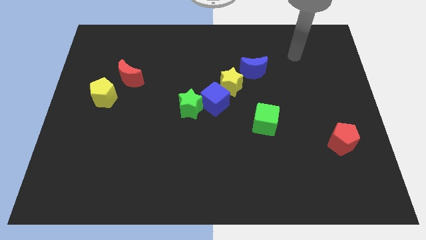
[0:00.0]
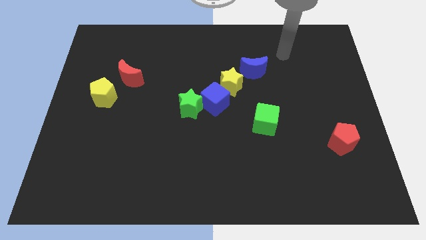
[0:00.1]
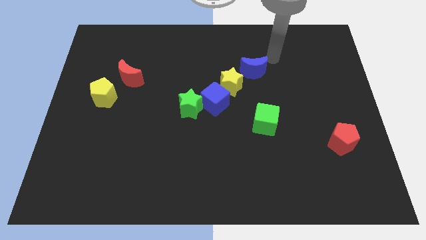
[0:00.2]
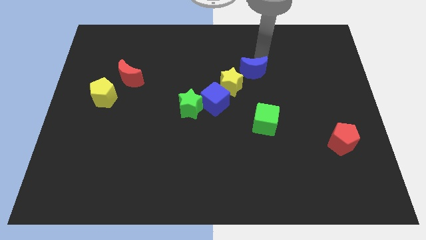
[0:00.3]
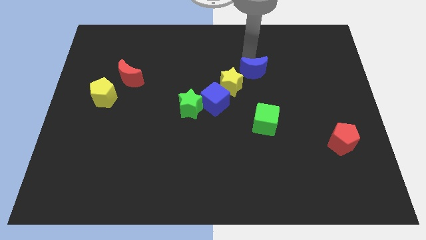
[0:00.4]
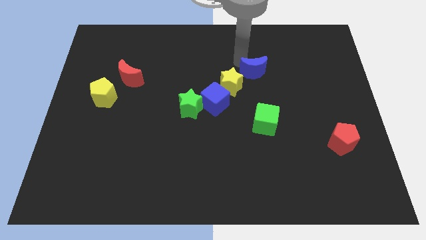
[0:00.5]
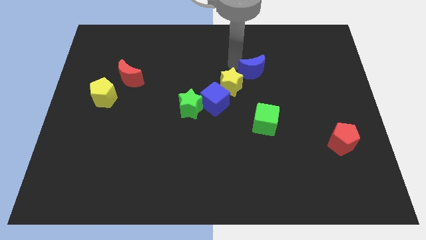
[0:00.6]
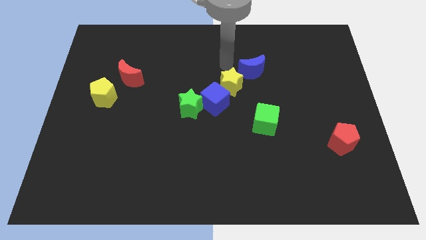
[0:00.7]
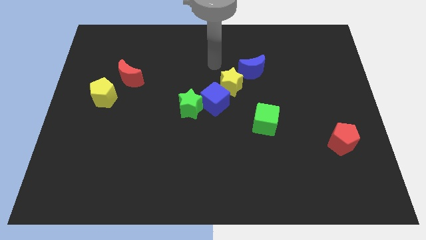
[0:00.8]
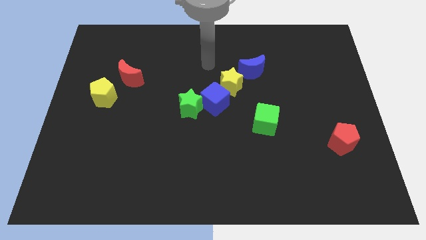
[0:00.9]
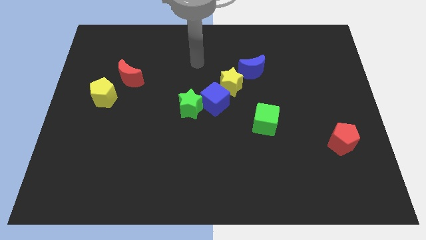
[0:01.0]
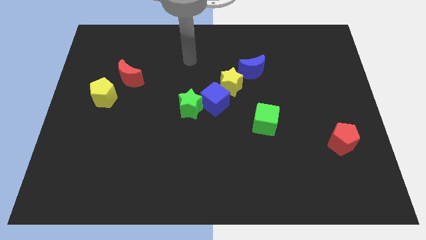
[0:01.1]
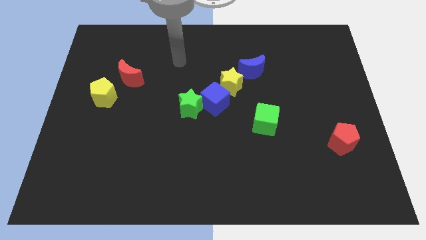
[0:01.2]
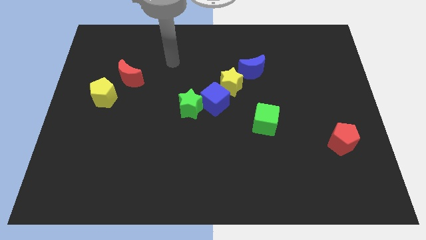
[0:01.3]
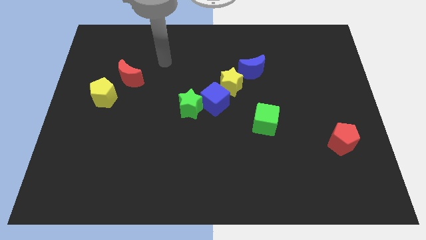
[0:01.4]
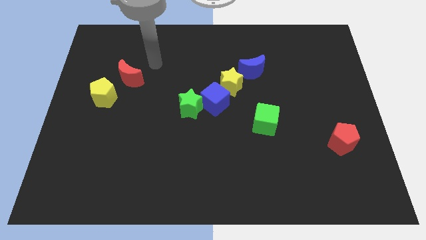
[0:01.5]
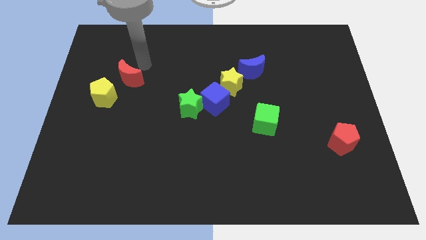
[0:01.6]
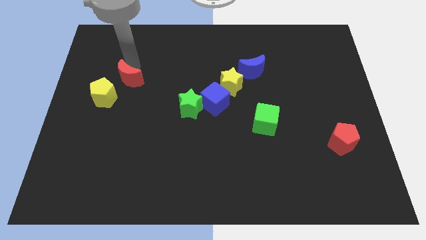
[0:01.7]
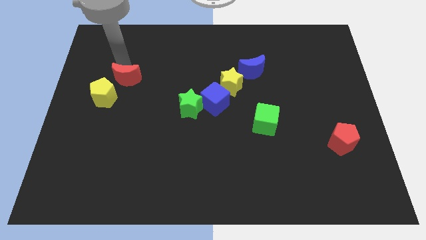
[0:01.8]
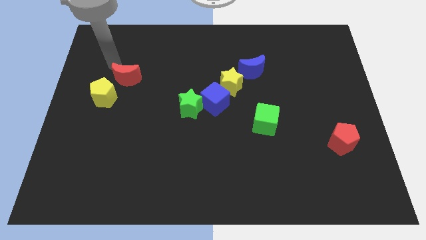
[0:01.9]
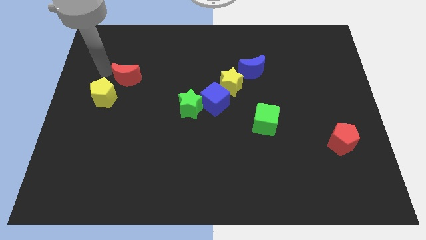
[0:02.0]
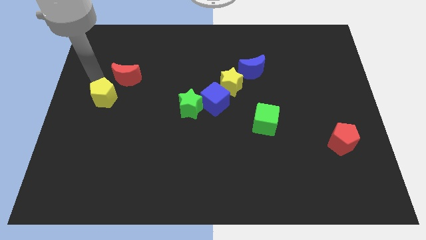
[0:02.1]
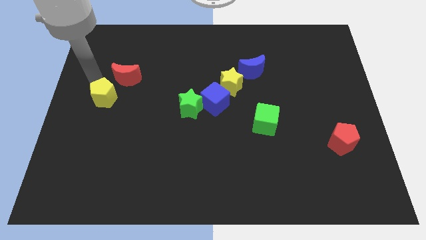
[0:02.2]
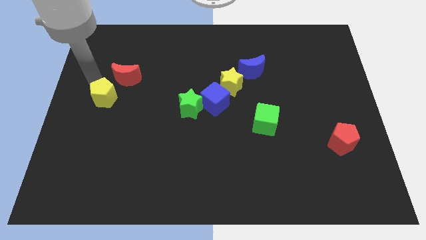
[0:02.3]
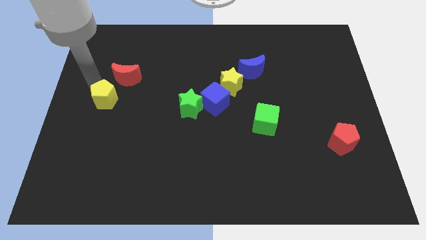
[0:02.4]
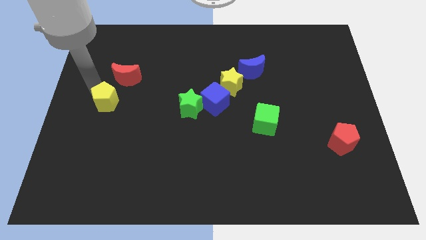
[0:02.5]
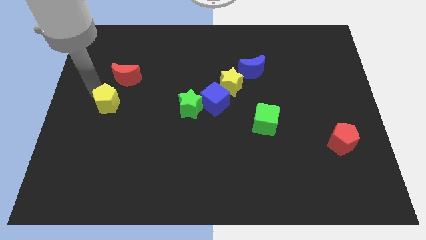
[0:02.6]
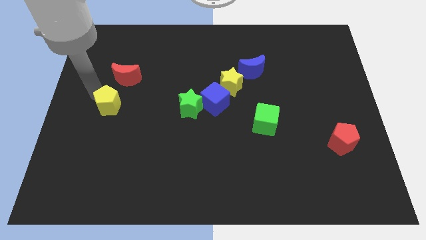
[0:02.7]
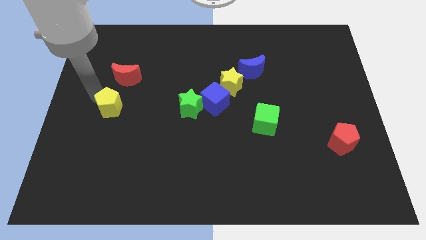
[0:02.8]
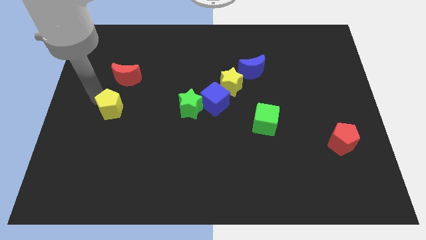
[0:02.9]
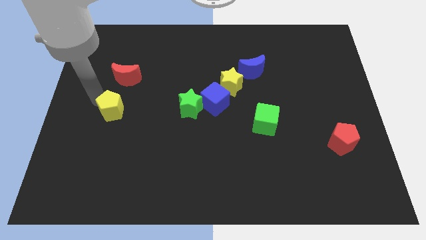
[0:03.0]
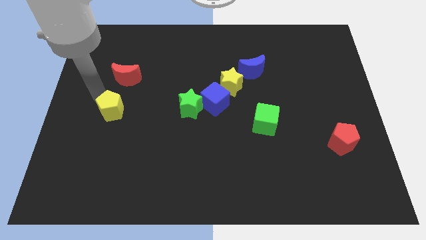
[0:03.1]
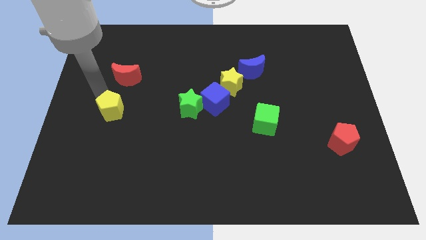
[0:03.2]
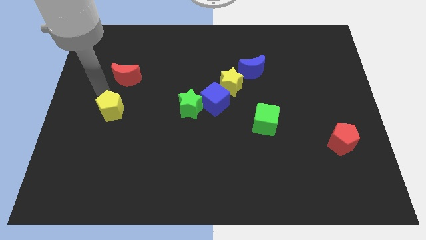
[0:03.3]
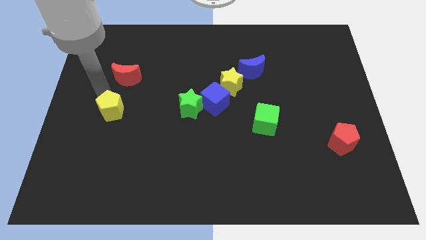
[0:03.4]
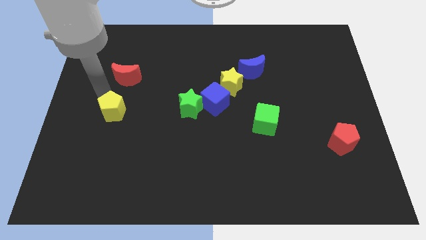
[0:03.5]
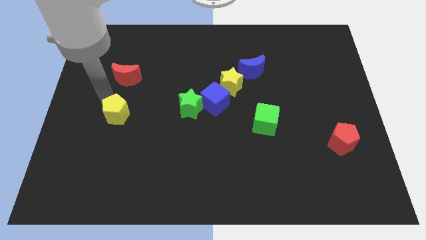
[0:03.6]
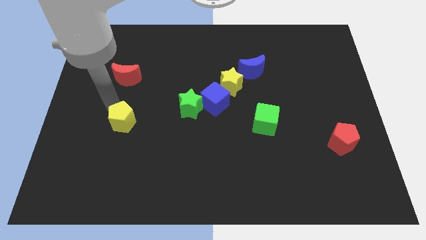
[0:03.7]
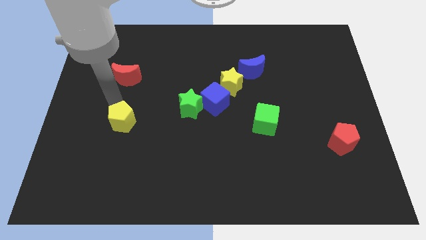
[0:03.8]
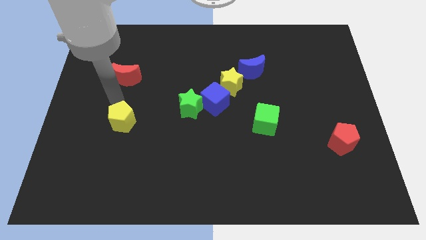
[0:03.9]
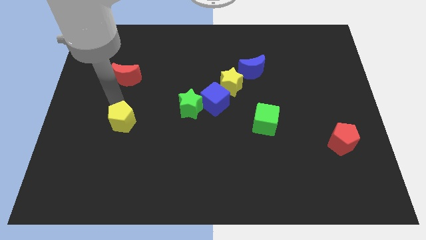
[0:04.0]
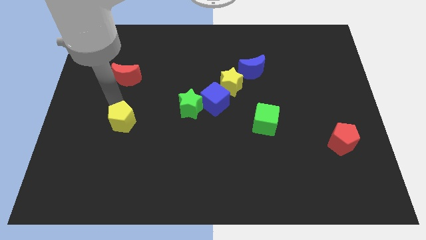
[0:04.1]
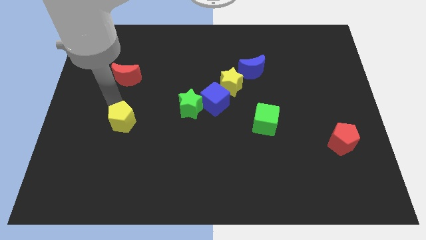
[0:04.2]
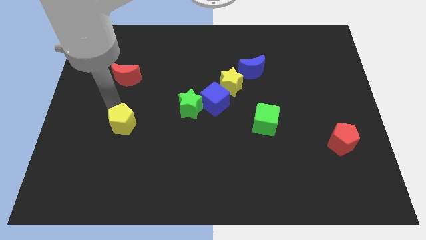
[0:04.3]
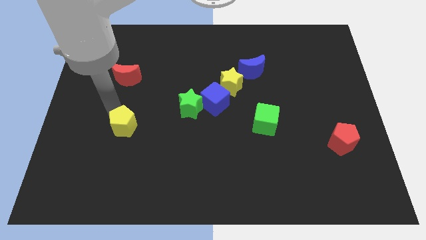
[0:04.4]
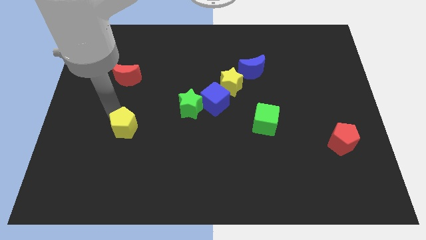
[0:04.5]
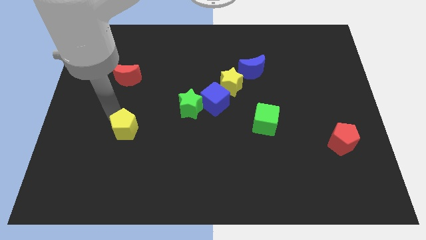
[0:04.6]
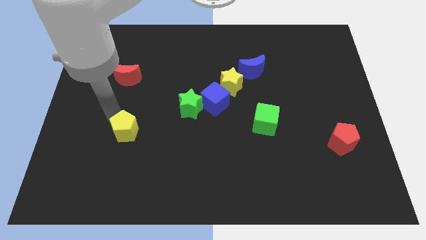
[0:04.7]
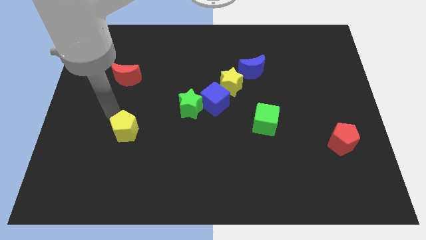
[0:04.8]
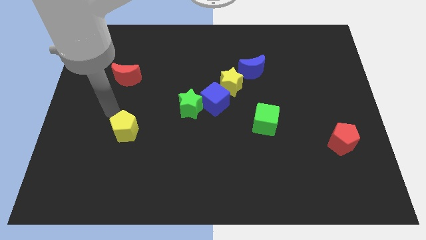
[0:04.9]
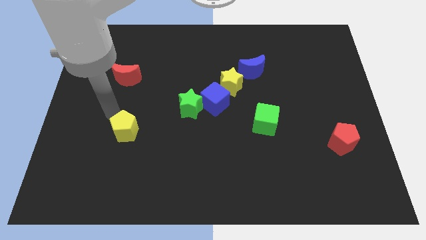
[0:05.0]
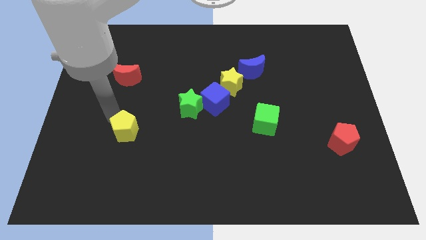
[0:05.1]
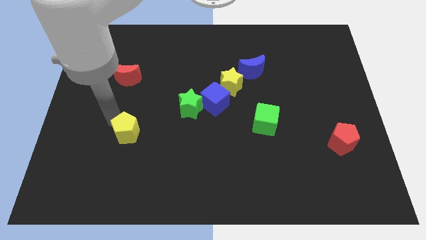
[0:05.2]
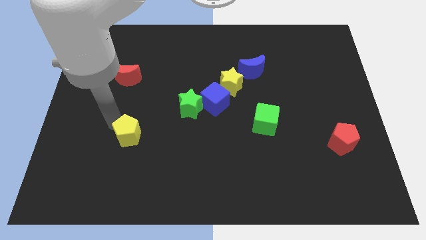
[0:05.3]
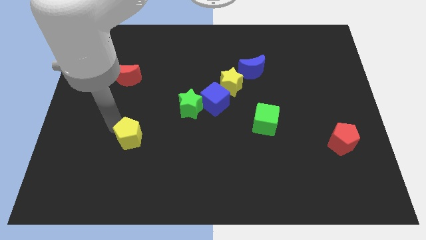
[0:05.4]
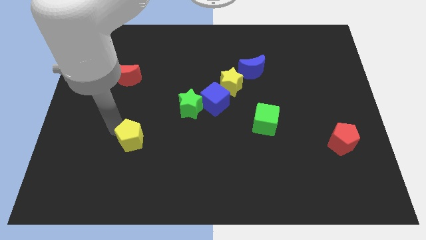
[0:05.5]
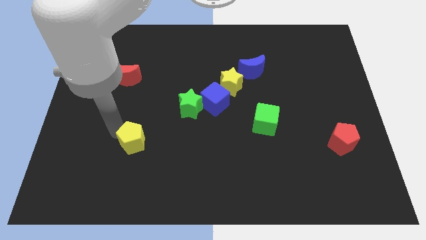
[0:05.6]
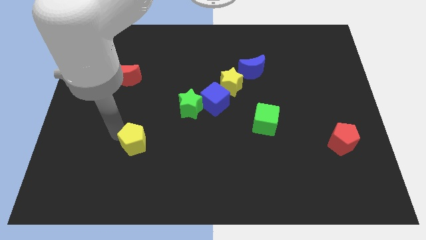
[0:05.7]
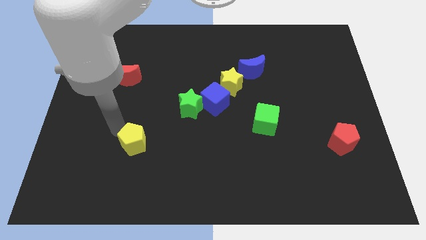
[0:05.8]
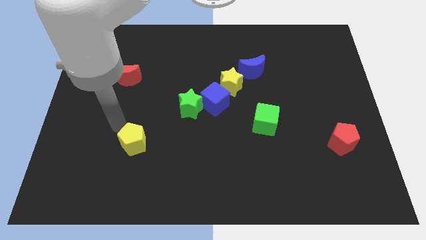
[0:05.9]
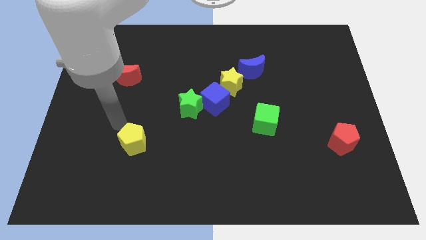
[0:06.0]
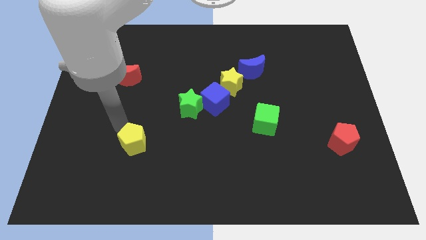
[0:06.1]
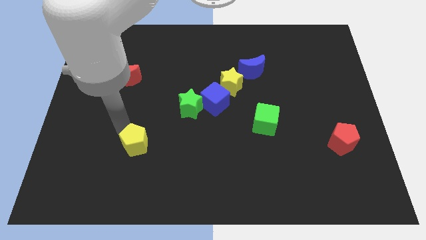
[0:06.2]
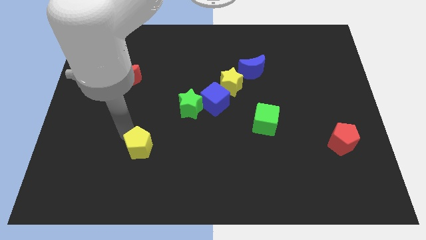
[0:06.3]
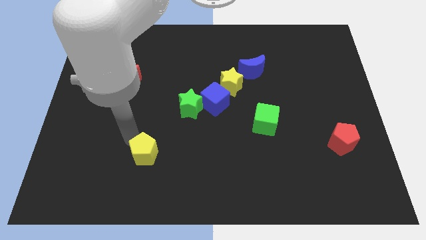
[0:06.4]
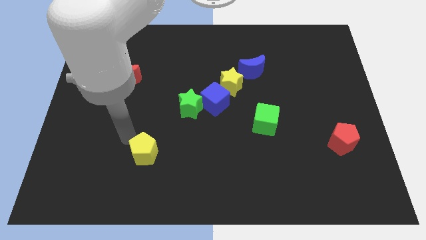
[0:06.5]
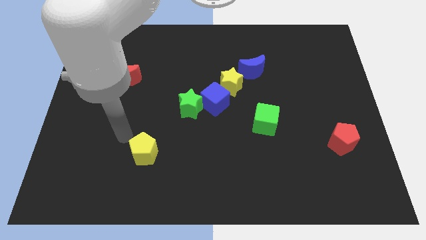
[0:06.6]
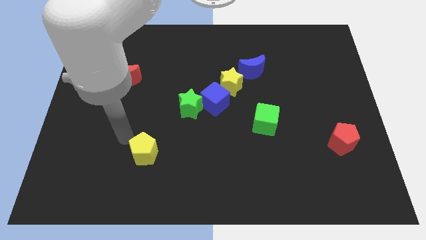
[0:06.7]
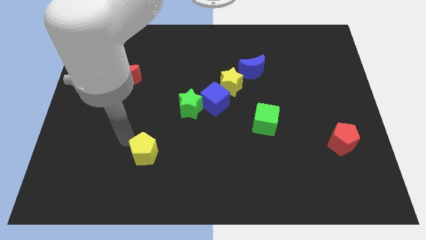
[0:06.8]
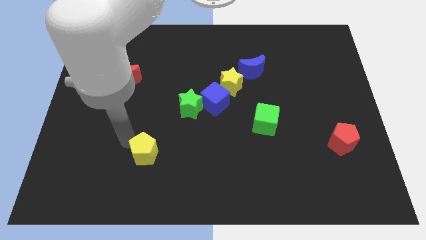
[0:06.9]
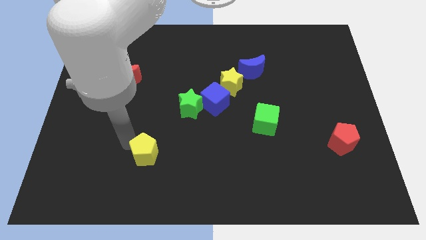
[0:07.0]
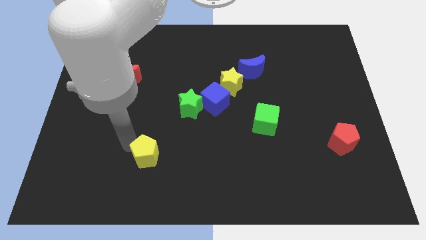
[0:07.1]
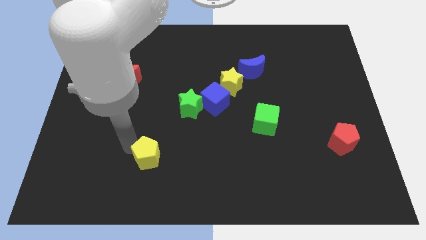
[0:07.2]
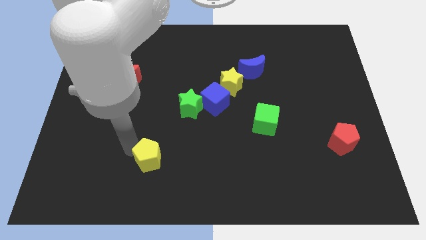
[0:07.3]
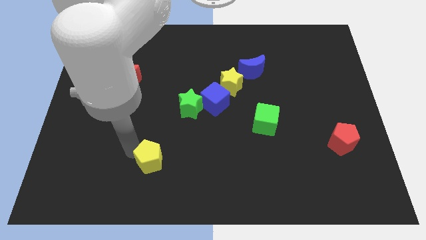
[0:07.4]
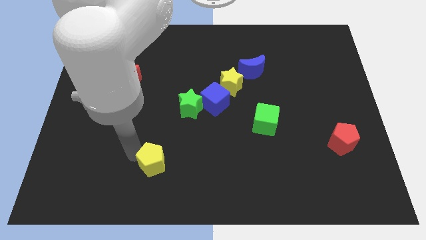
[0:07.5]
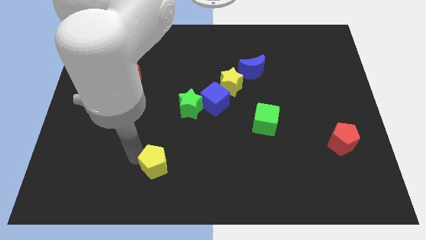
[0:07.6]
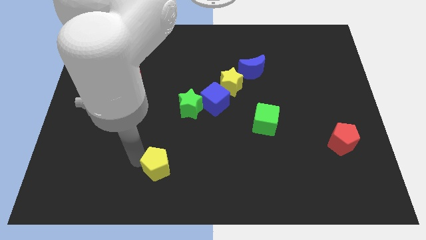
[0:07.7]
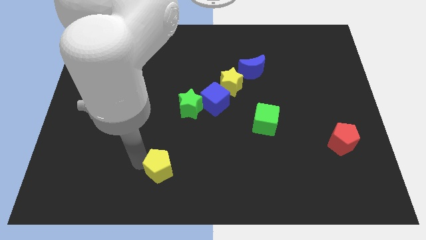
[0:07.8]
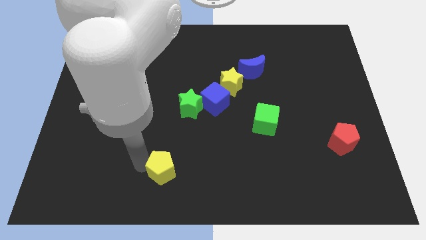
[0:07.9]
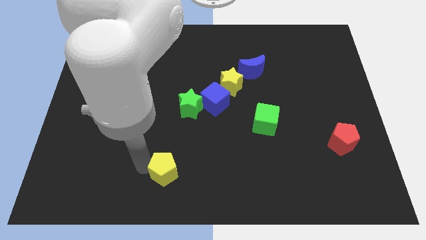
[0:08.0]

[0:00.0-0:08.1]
slide the yellow pentagon to the bottom side
